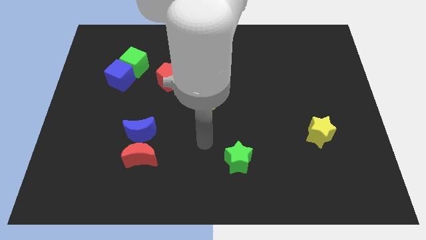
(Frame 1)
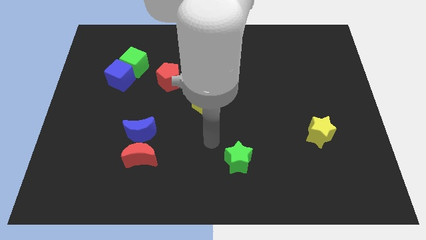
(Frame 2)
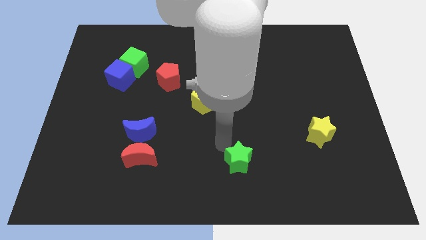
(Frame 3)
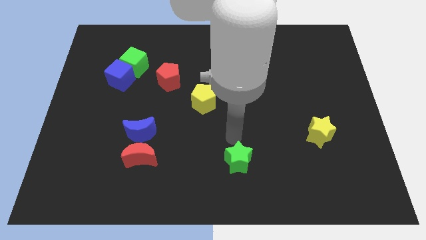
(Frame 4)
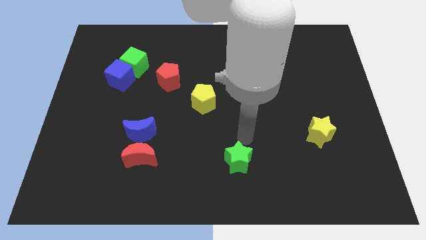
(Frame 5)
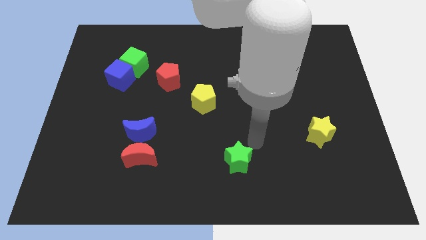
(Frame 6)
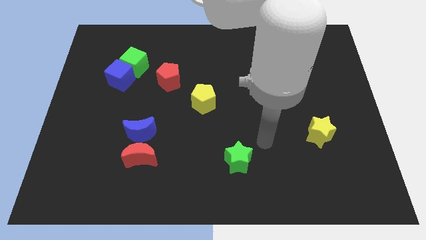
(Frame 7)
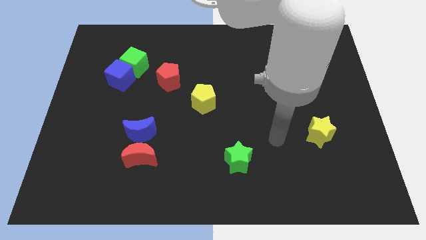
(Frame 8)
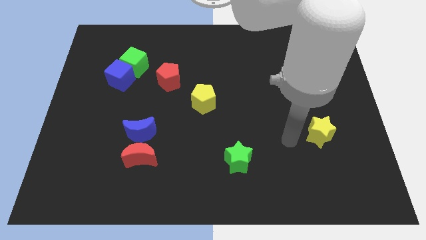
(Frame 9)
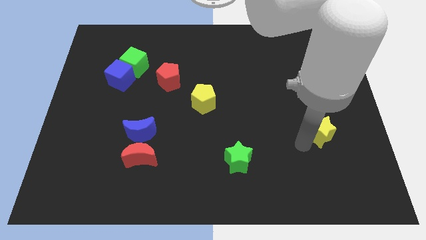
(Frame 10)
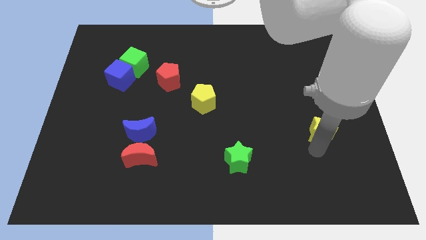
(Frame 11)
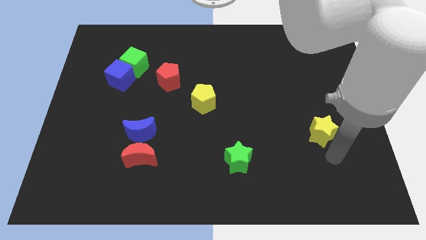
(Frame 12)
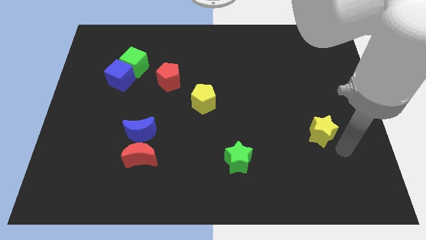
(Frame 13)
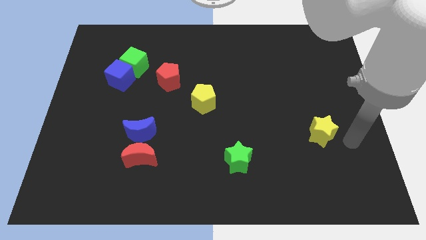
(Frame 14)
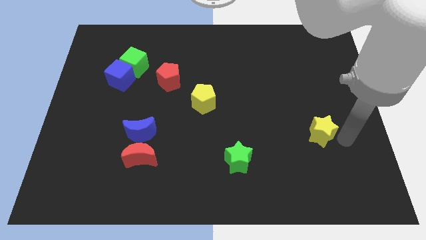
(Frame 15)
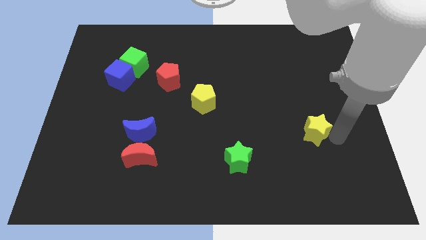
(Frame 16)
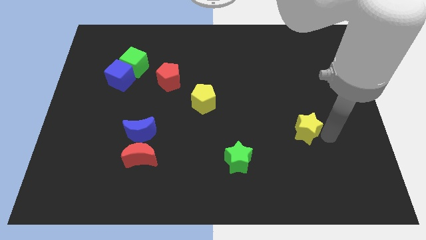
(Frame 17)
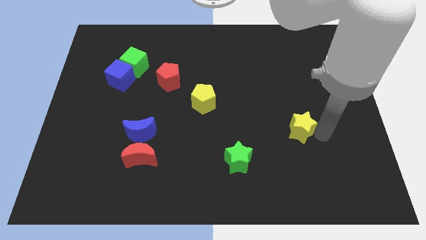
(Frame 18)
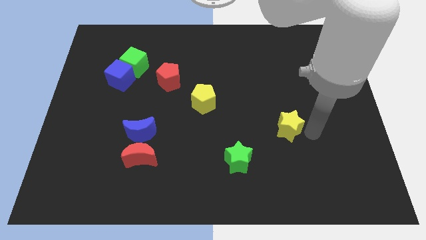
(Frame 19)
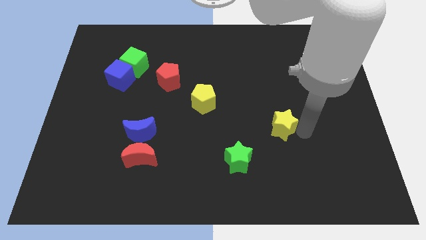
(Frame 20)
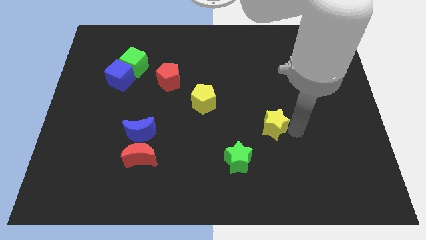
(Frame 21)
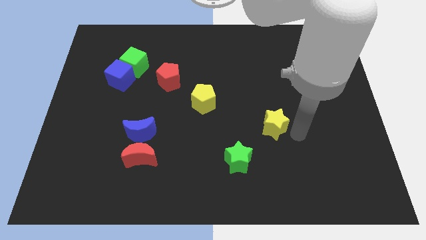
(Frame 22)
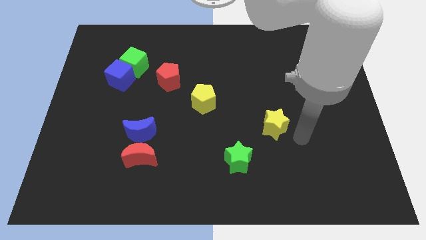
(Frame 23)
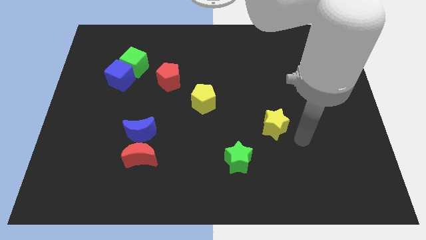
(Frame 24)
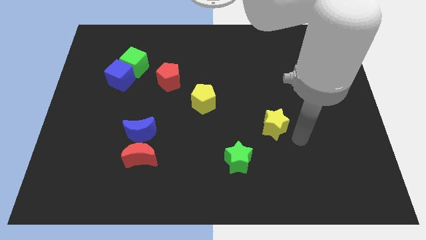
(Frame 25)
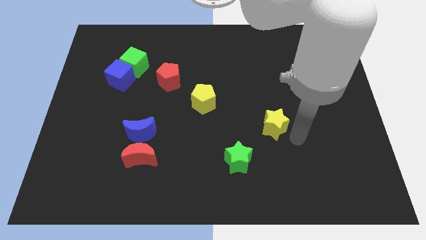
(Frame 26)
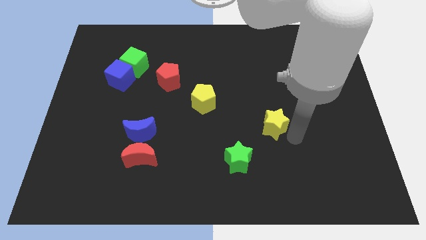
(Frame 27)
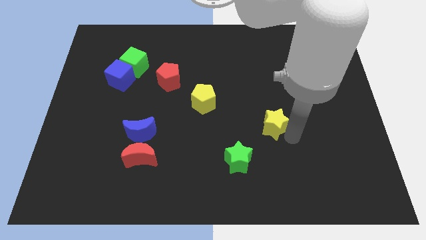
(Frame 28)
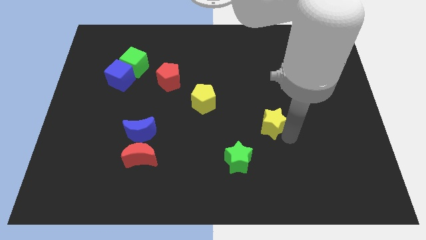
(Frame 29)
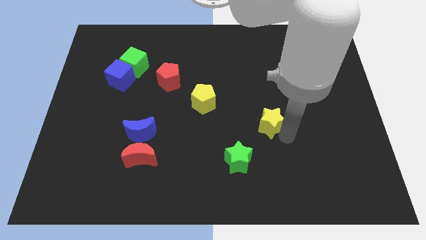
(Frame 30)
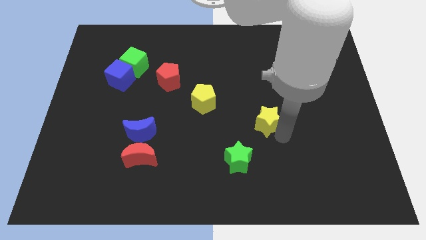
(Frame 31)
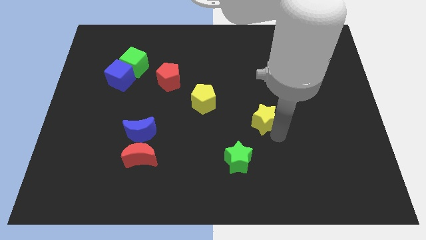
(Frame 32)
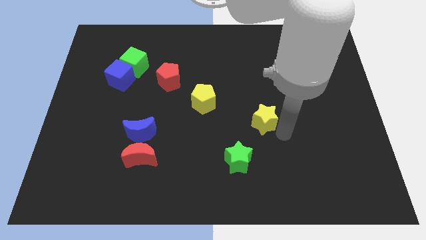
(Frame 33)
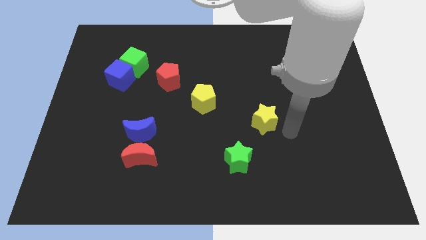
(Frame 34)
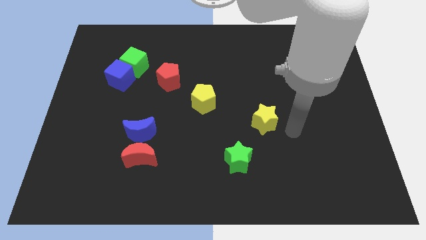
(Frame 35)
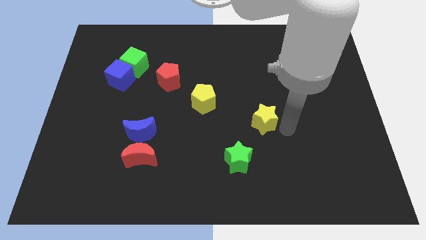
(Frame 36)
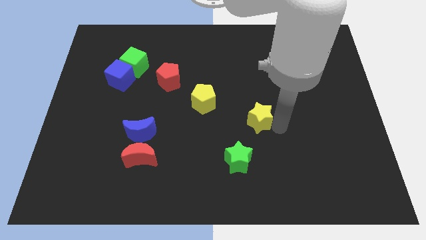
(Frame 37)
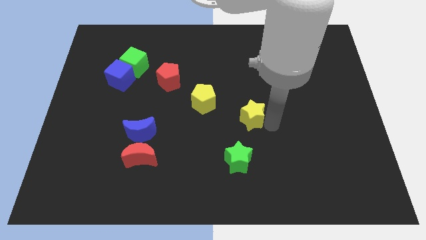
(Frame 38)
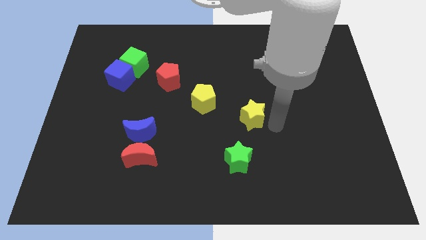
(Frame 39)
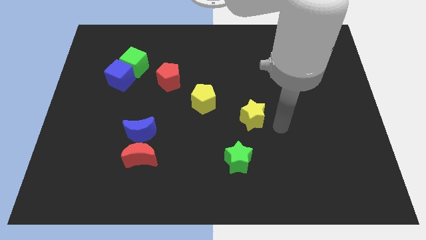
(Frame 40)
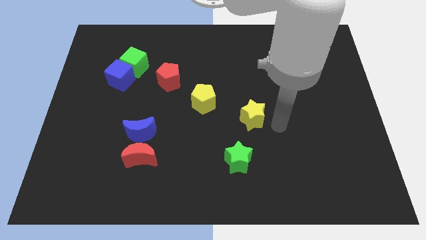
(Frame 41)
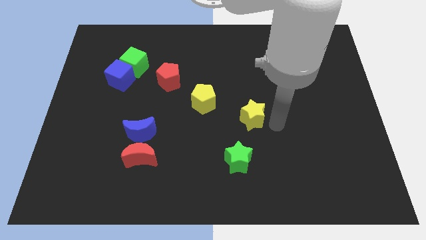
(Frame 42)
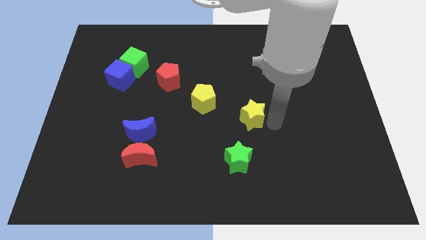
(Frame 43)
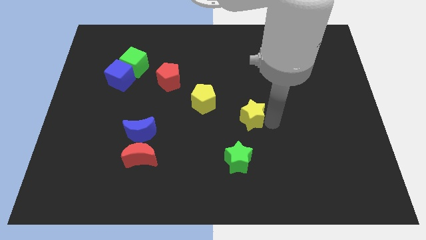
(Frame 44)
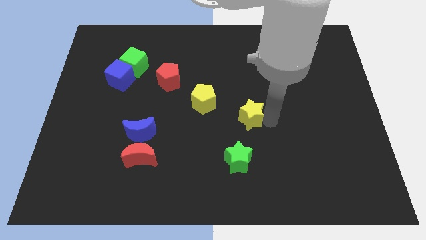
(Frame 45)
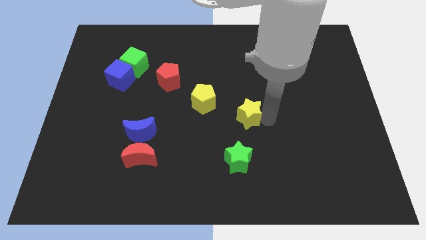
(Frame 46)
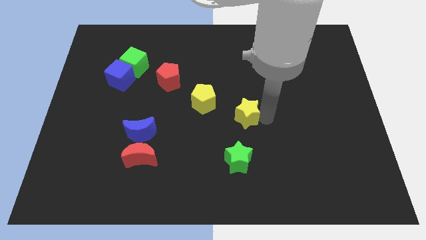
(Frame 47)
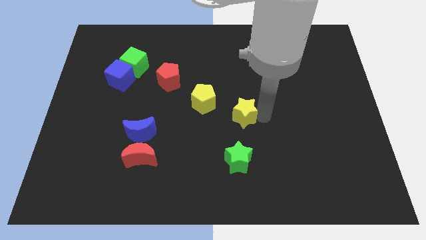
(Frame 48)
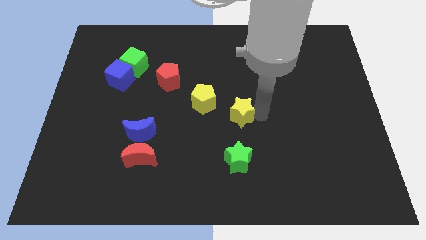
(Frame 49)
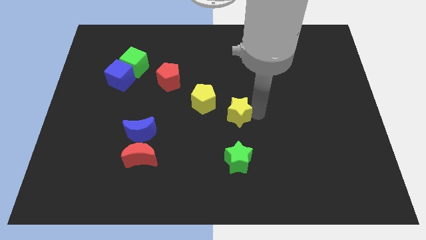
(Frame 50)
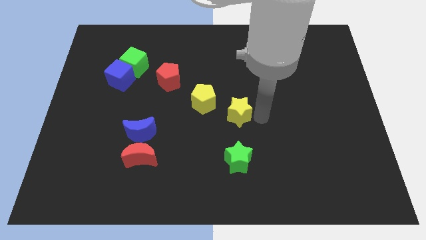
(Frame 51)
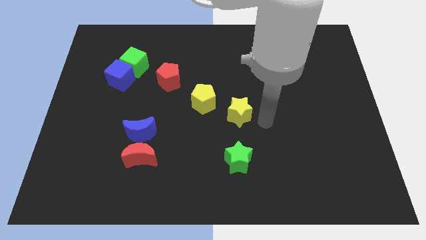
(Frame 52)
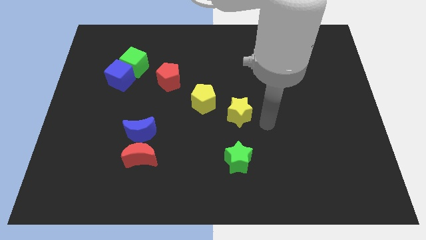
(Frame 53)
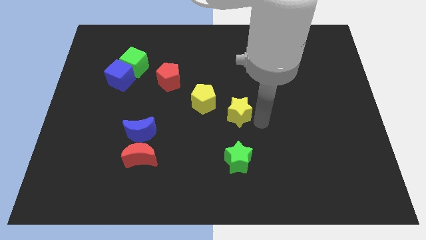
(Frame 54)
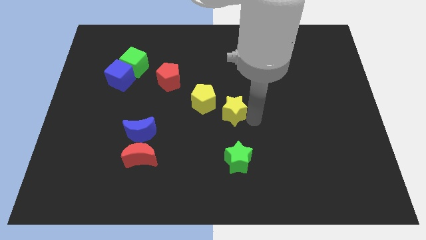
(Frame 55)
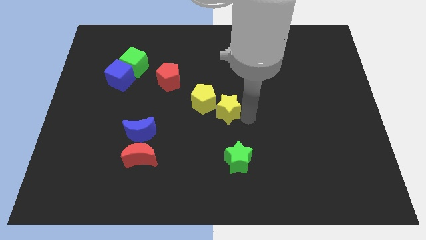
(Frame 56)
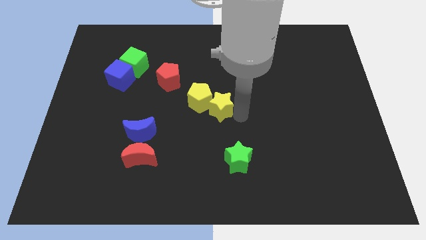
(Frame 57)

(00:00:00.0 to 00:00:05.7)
put the yellow star towards the yellow pentagon

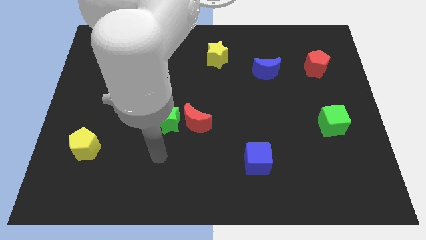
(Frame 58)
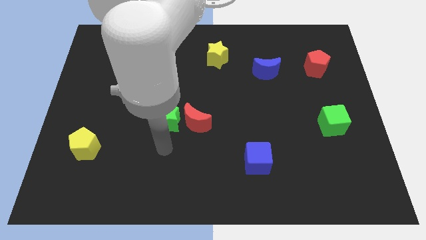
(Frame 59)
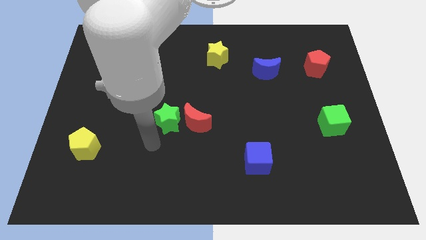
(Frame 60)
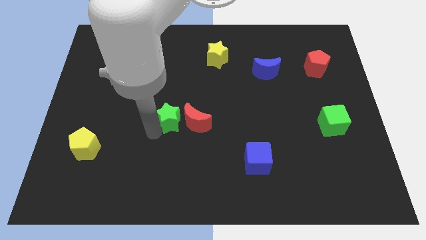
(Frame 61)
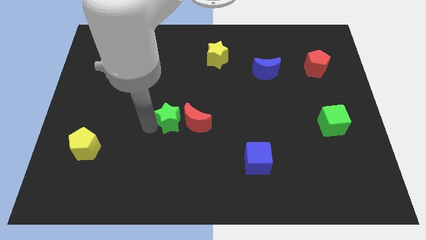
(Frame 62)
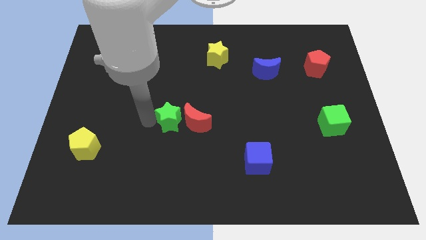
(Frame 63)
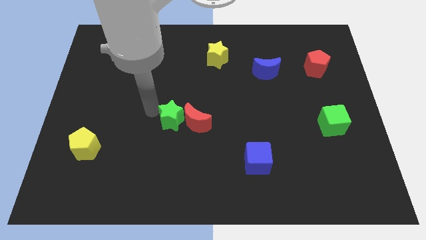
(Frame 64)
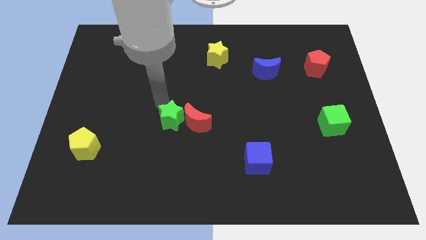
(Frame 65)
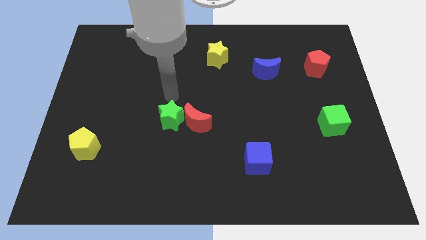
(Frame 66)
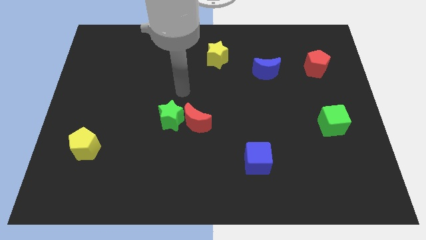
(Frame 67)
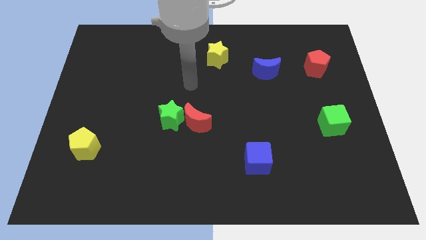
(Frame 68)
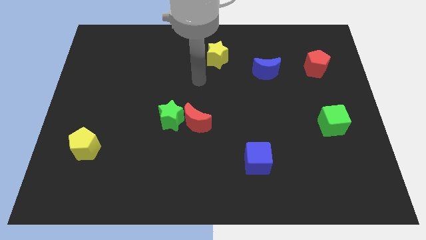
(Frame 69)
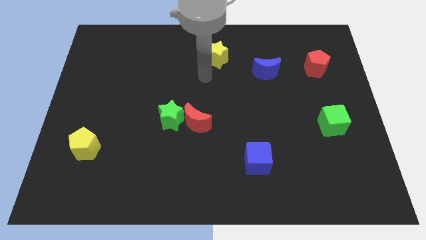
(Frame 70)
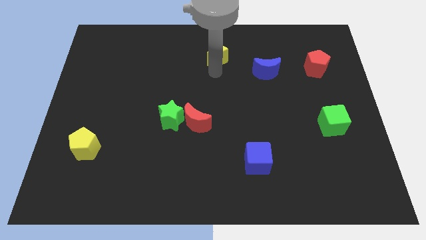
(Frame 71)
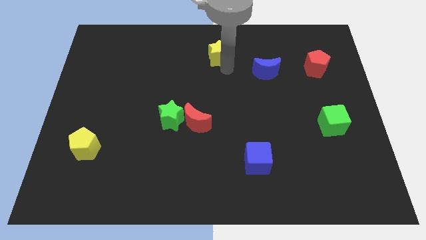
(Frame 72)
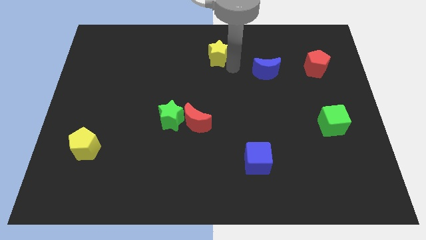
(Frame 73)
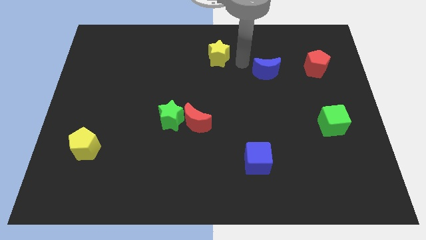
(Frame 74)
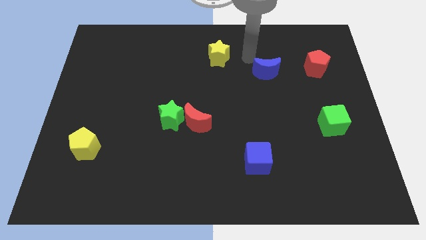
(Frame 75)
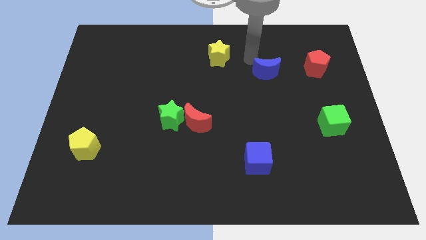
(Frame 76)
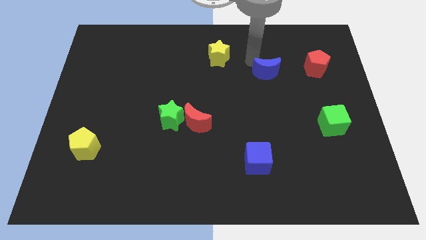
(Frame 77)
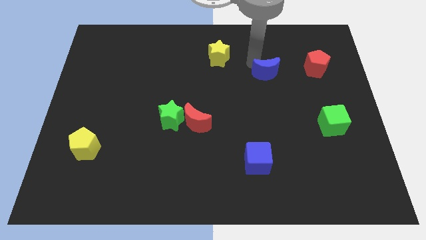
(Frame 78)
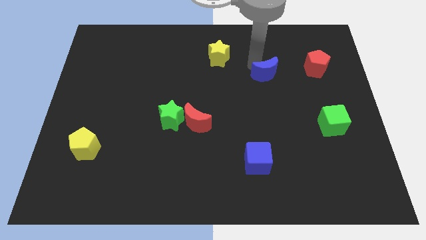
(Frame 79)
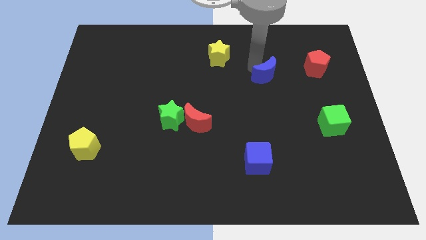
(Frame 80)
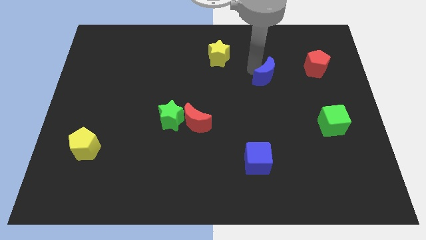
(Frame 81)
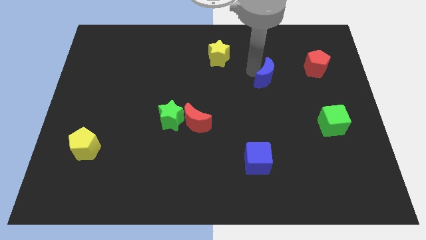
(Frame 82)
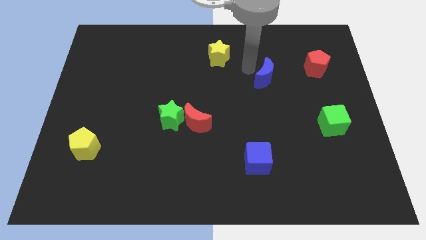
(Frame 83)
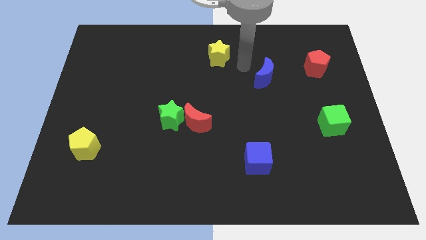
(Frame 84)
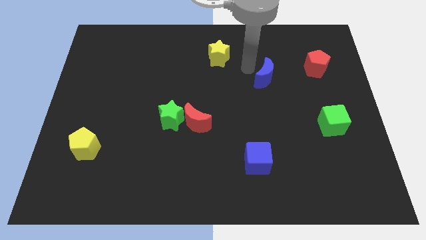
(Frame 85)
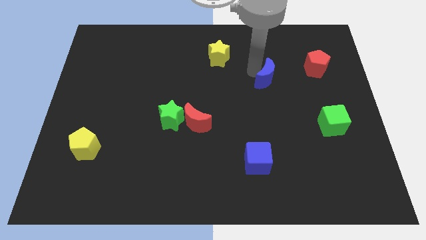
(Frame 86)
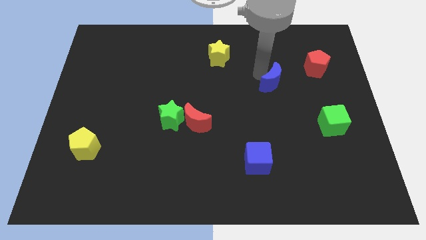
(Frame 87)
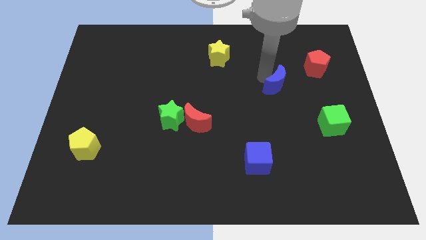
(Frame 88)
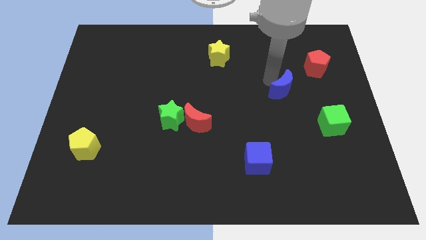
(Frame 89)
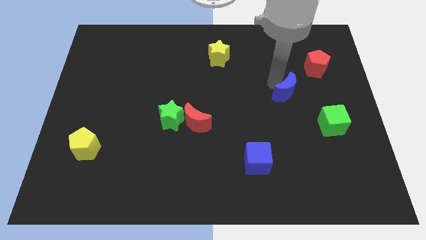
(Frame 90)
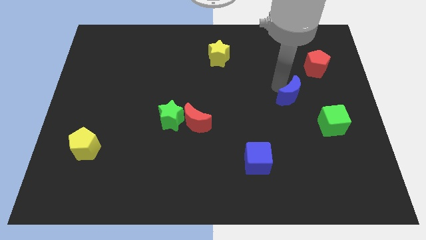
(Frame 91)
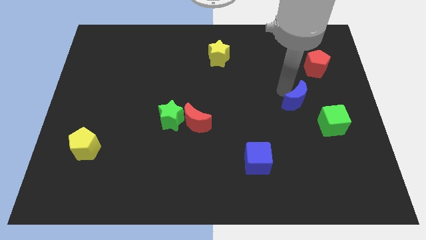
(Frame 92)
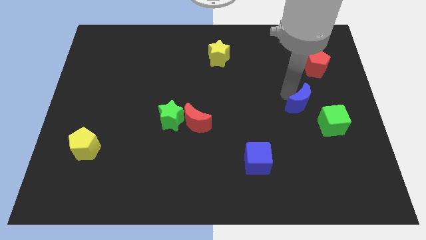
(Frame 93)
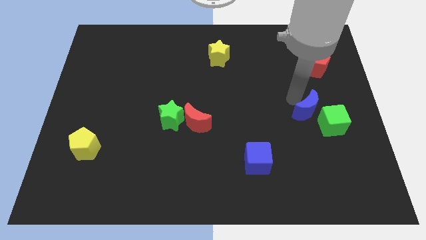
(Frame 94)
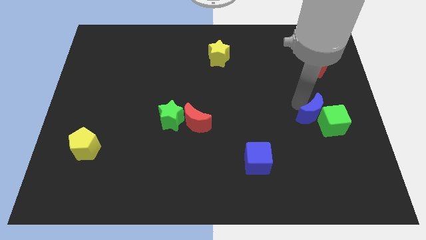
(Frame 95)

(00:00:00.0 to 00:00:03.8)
move the blue moon close to the green cube
